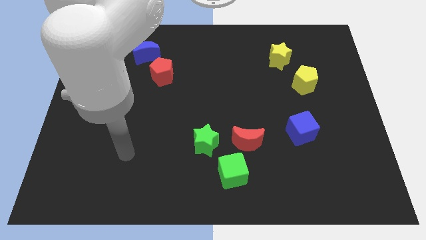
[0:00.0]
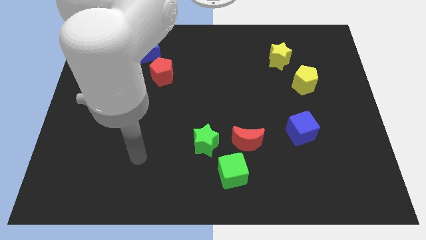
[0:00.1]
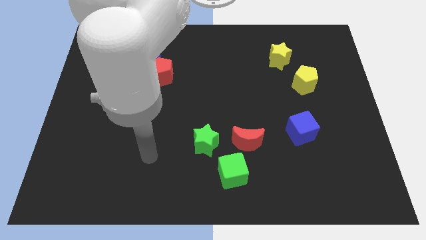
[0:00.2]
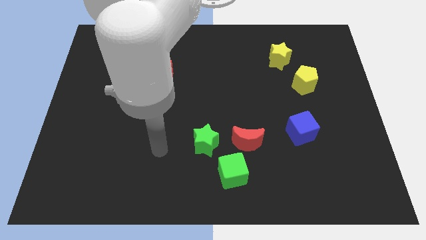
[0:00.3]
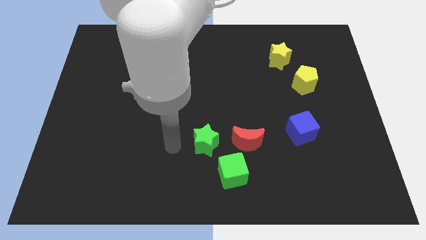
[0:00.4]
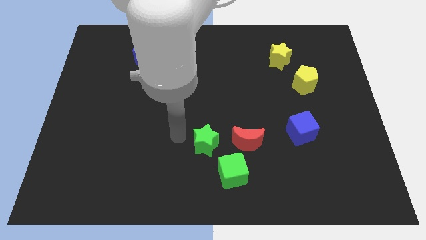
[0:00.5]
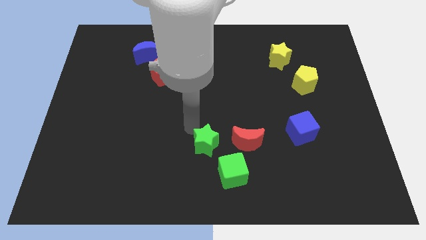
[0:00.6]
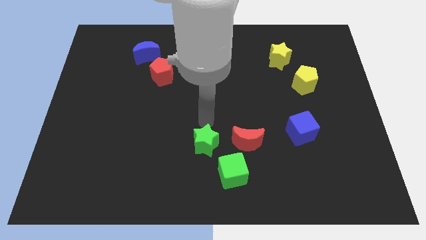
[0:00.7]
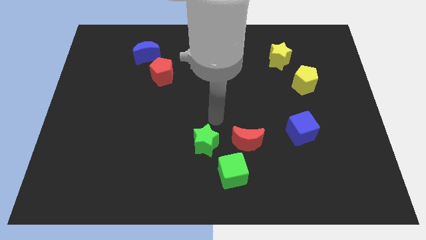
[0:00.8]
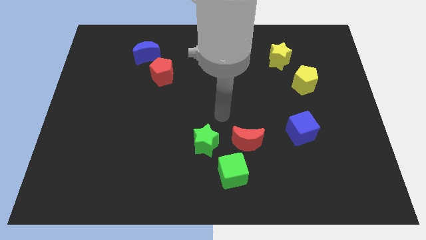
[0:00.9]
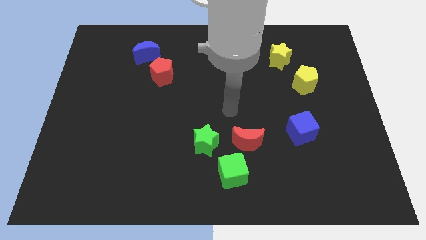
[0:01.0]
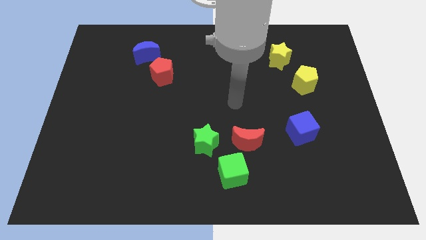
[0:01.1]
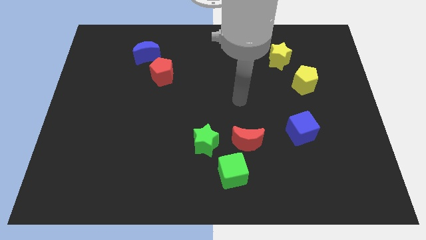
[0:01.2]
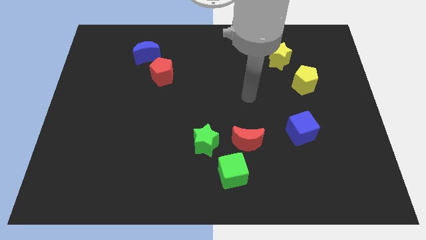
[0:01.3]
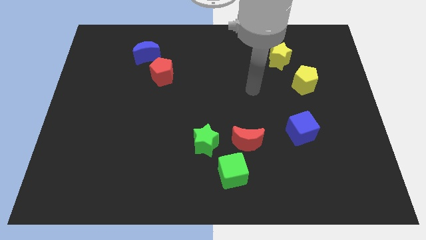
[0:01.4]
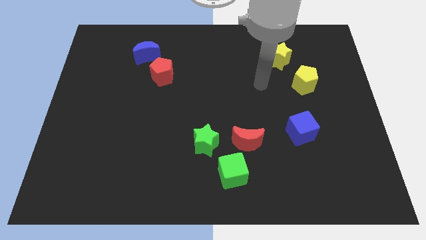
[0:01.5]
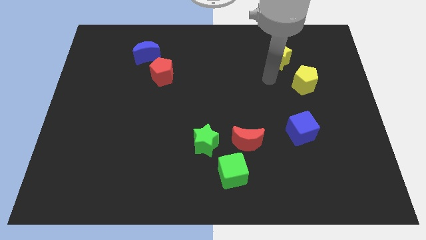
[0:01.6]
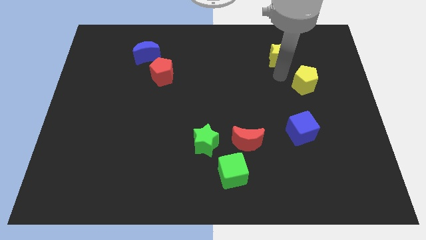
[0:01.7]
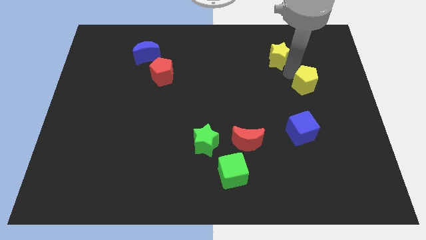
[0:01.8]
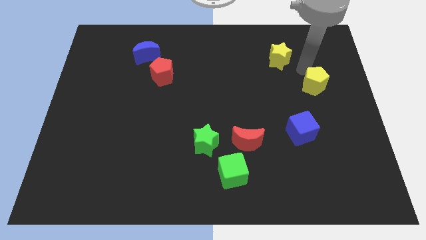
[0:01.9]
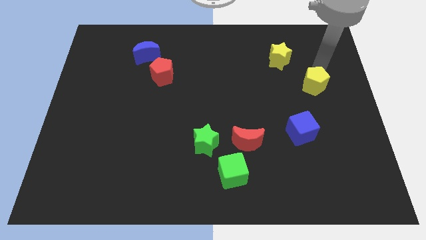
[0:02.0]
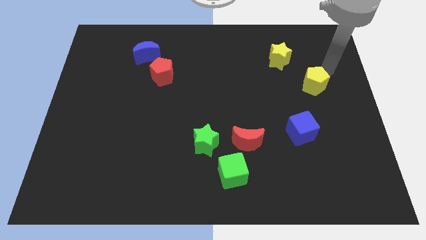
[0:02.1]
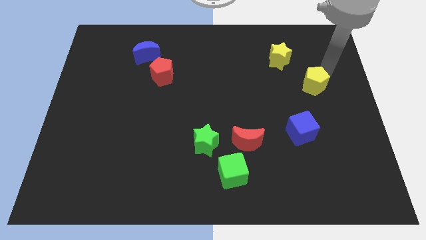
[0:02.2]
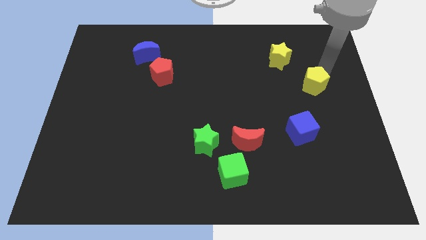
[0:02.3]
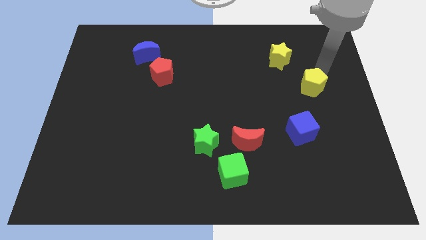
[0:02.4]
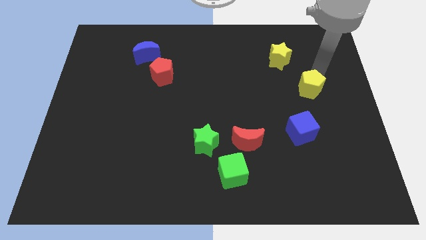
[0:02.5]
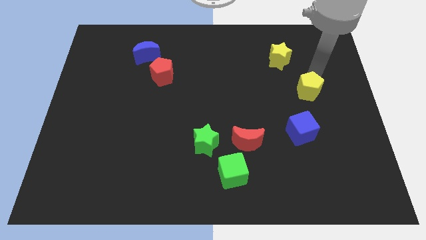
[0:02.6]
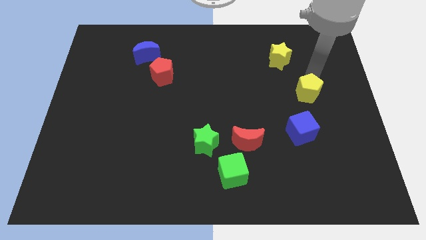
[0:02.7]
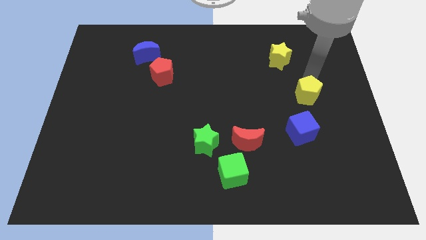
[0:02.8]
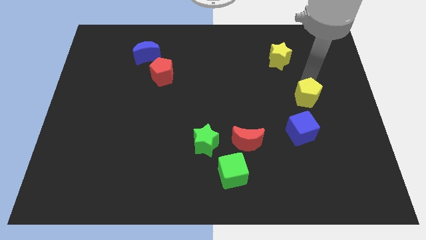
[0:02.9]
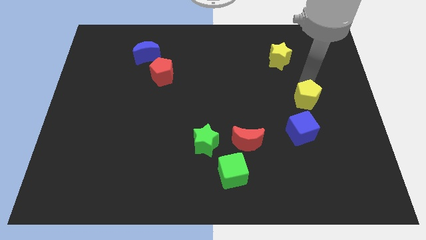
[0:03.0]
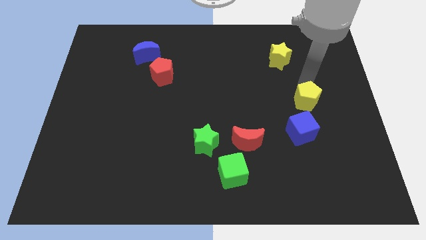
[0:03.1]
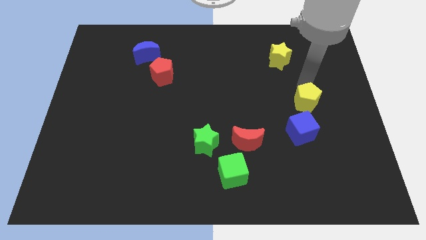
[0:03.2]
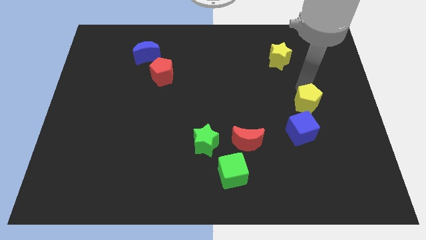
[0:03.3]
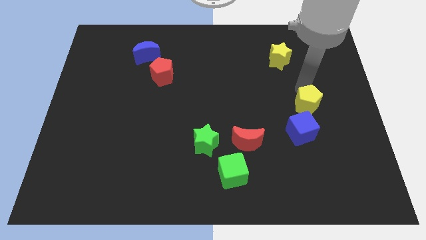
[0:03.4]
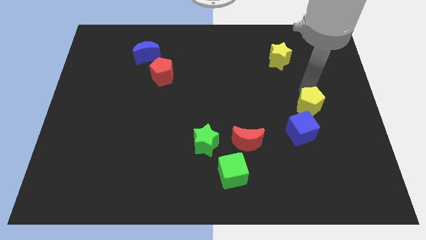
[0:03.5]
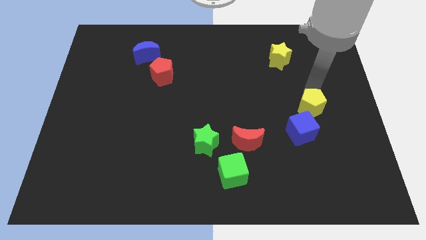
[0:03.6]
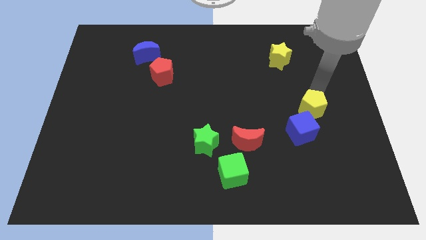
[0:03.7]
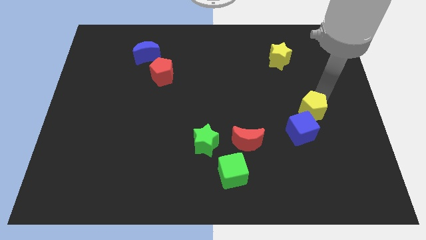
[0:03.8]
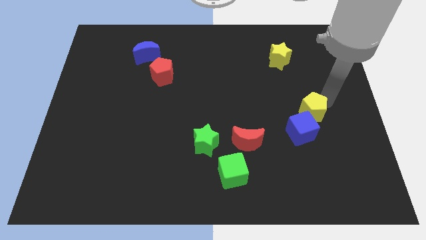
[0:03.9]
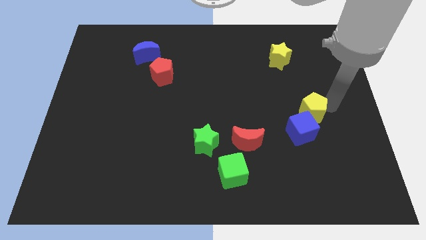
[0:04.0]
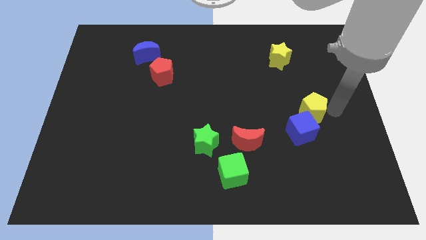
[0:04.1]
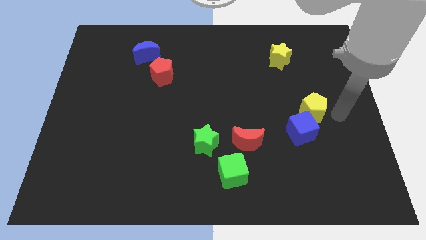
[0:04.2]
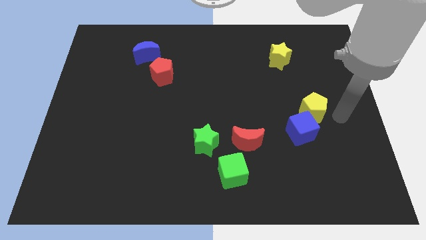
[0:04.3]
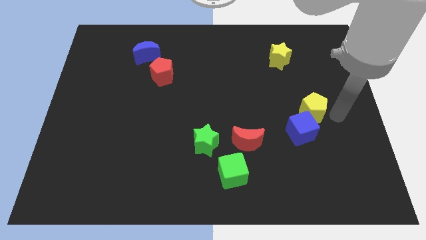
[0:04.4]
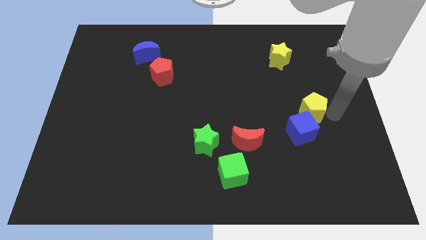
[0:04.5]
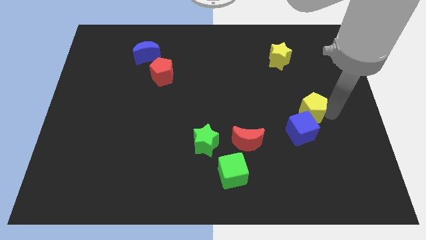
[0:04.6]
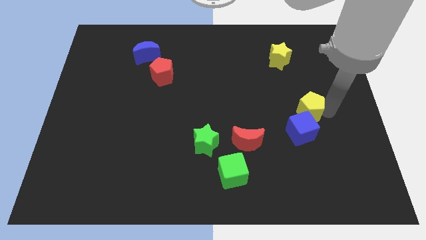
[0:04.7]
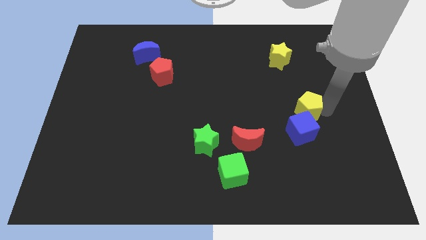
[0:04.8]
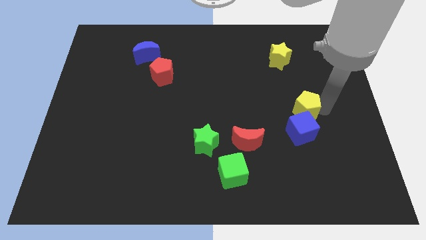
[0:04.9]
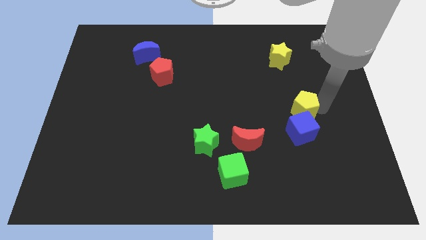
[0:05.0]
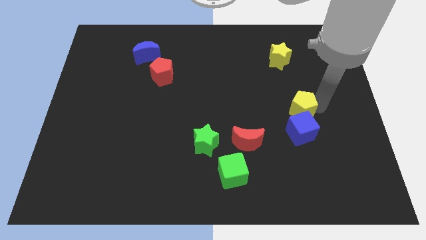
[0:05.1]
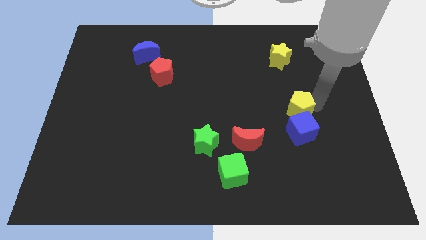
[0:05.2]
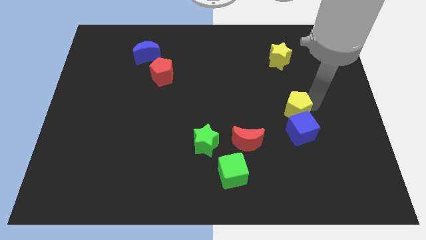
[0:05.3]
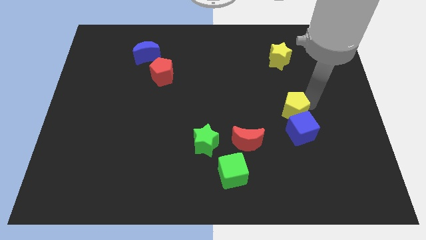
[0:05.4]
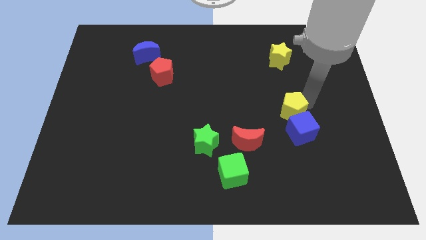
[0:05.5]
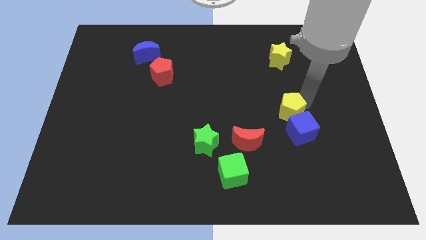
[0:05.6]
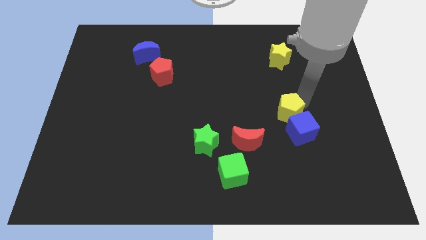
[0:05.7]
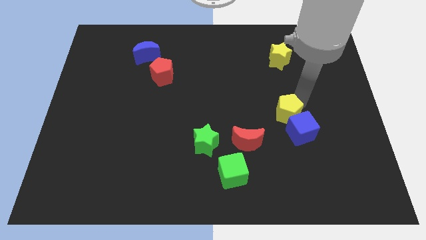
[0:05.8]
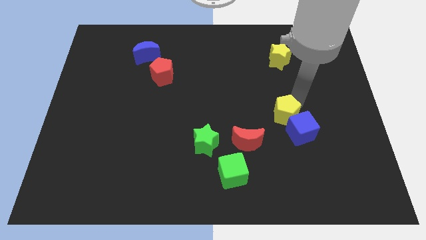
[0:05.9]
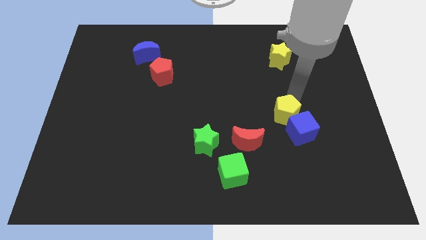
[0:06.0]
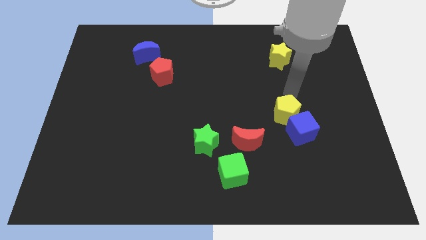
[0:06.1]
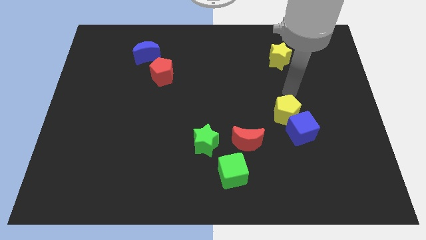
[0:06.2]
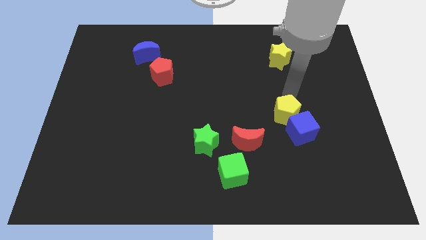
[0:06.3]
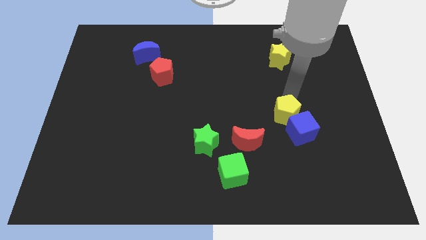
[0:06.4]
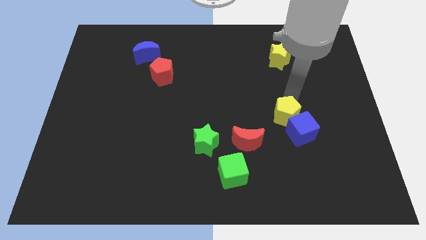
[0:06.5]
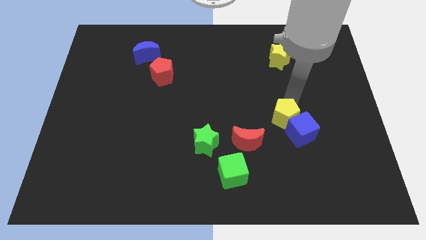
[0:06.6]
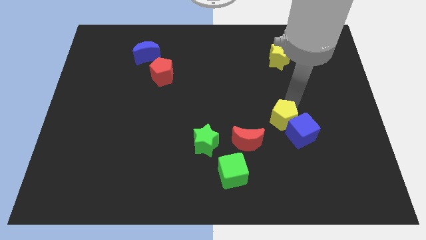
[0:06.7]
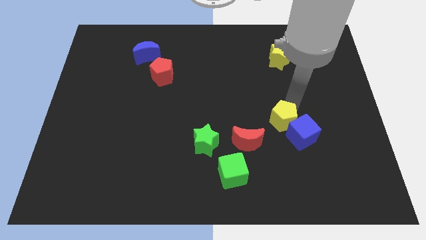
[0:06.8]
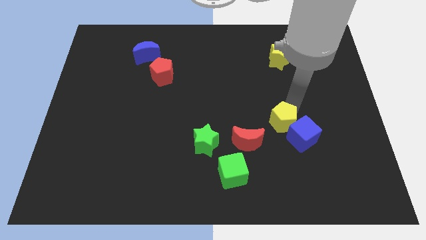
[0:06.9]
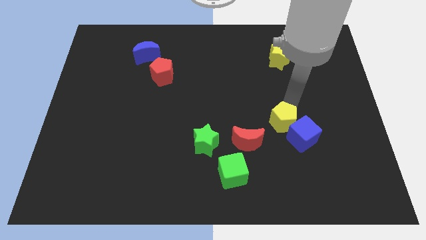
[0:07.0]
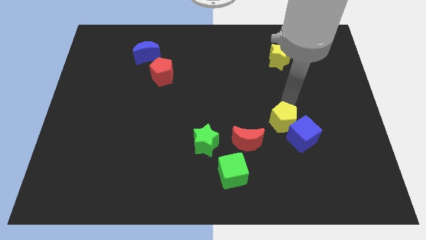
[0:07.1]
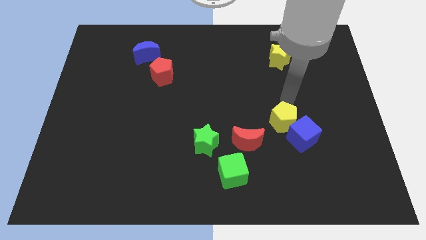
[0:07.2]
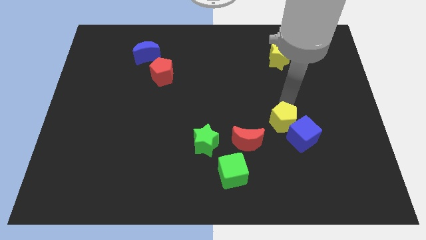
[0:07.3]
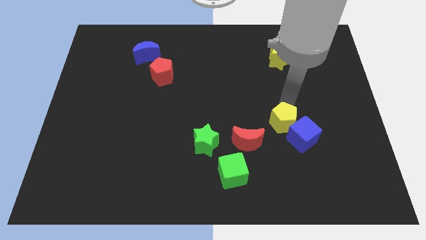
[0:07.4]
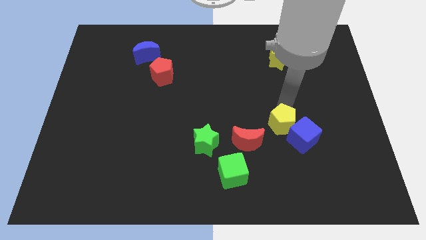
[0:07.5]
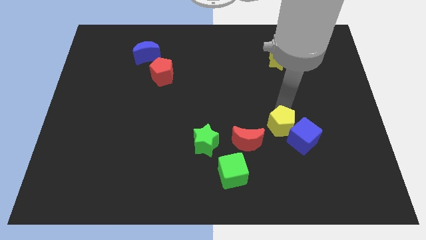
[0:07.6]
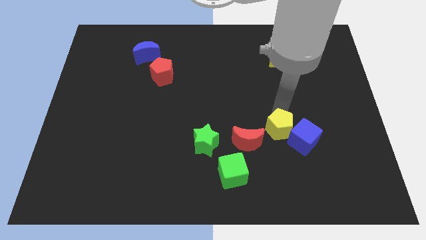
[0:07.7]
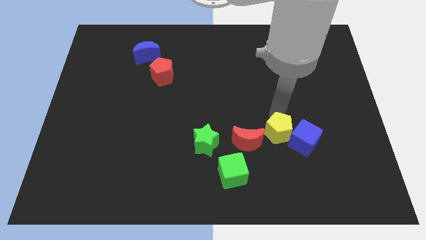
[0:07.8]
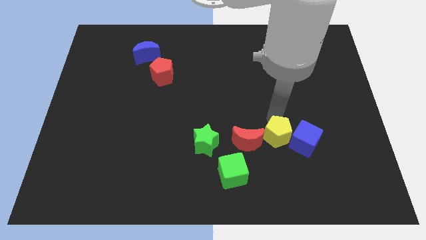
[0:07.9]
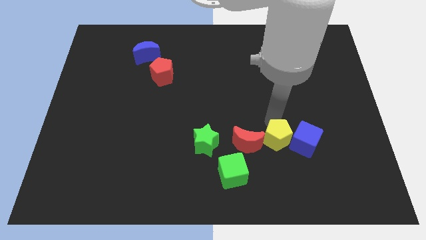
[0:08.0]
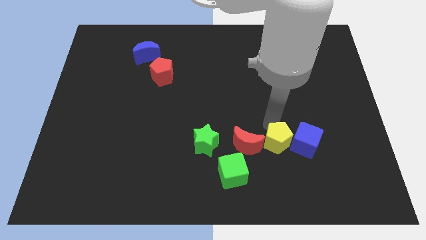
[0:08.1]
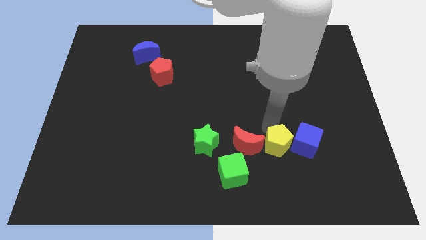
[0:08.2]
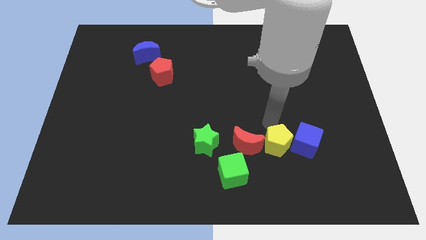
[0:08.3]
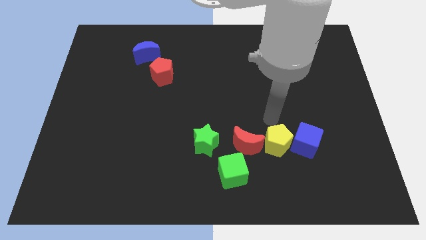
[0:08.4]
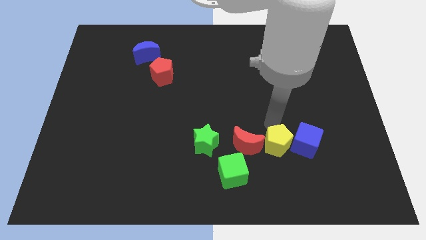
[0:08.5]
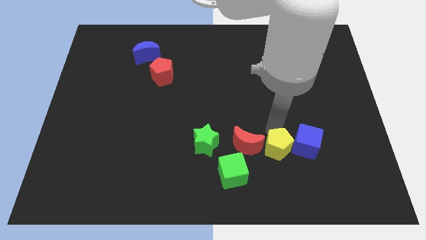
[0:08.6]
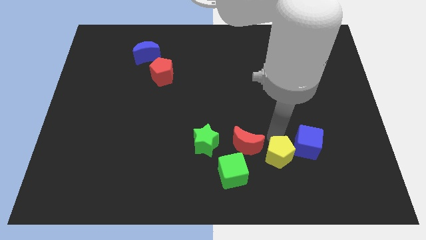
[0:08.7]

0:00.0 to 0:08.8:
put the yellow pentagon to the right of the green cube
